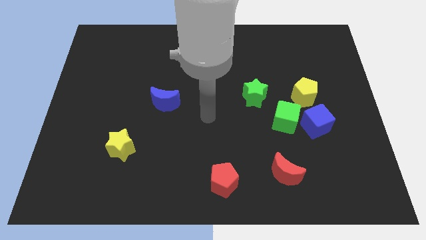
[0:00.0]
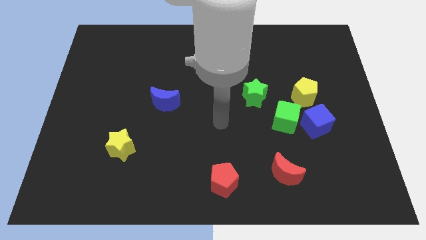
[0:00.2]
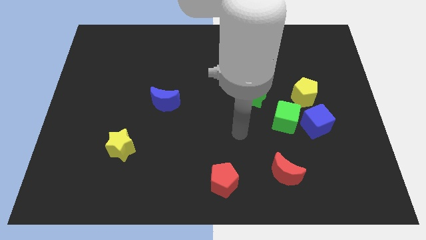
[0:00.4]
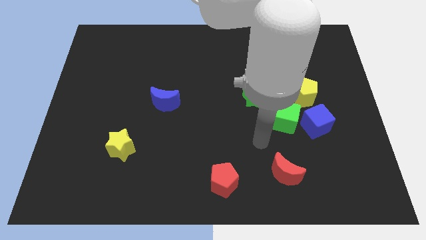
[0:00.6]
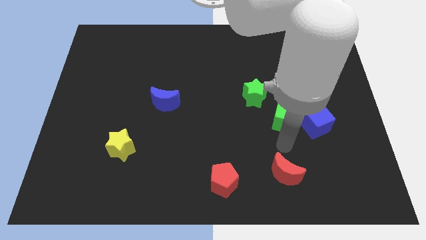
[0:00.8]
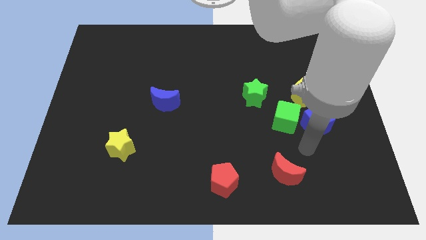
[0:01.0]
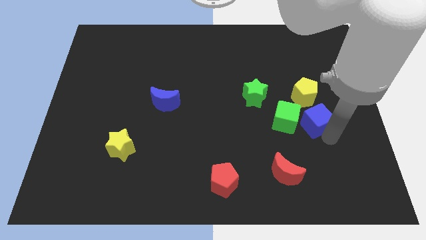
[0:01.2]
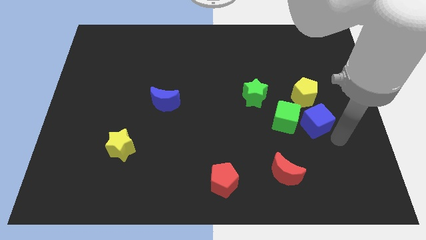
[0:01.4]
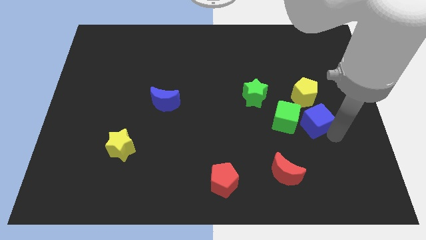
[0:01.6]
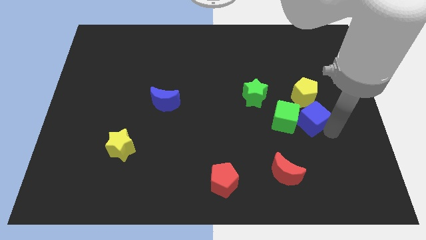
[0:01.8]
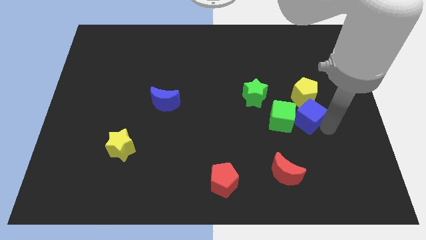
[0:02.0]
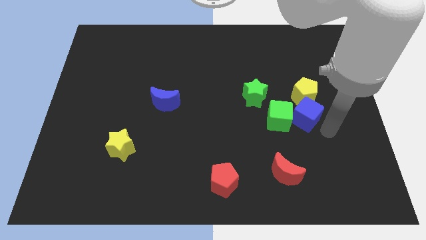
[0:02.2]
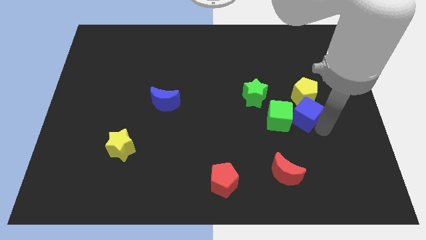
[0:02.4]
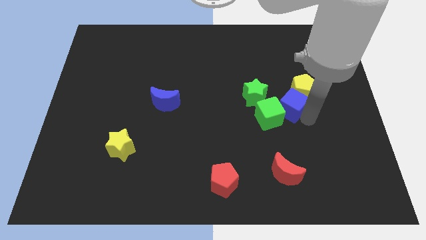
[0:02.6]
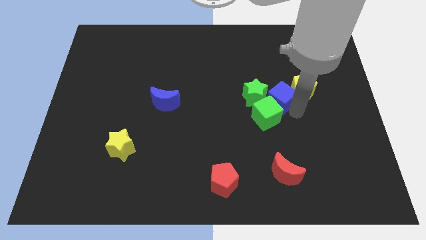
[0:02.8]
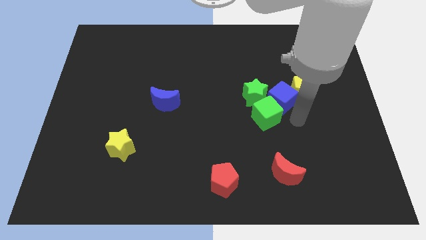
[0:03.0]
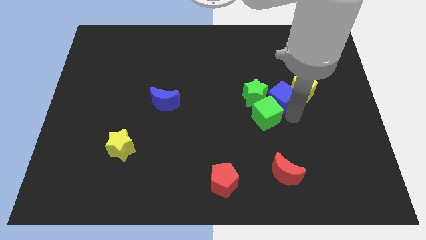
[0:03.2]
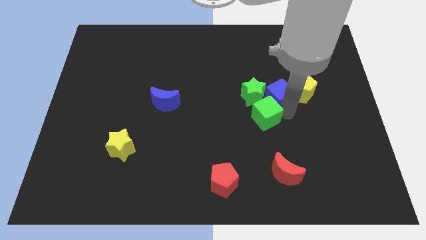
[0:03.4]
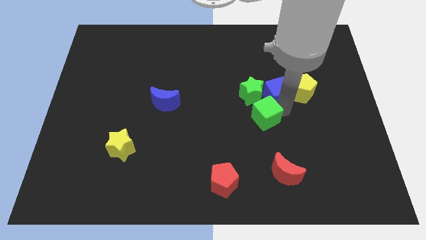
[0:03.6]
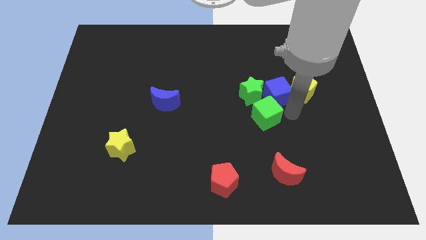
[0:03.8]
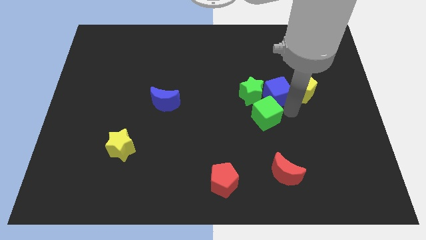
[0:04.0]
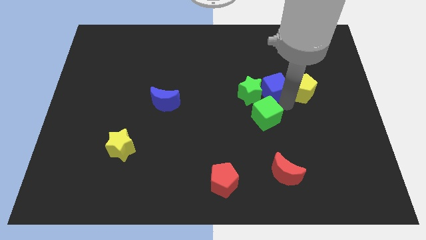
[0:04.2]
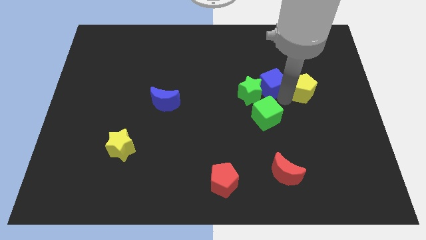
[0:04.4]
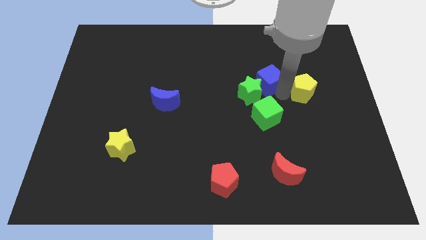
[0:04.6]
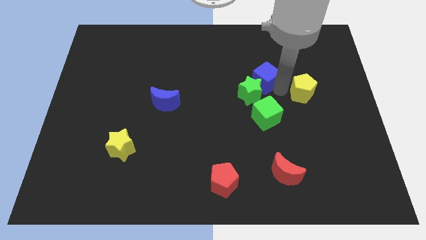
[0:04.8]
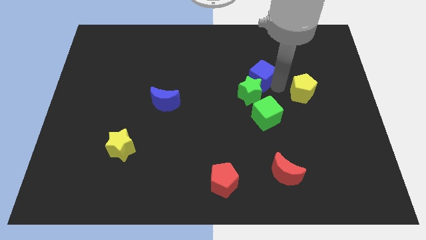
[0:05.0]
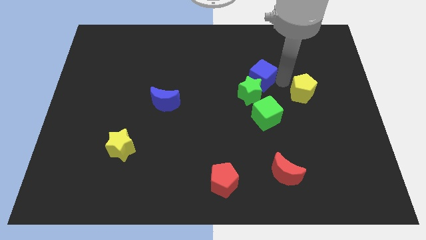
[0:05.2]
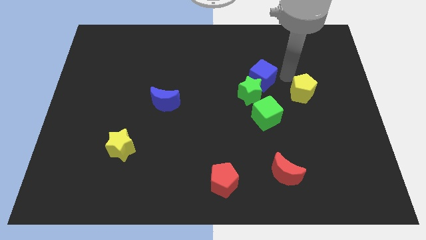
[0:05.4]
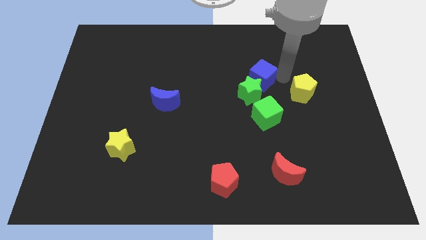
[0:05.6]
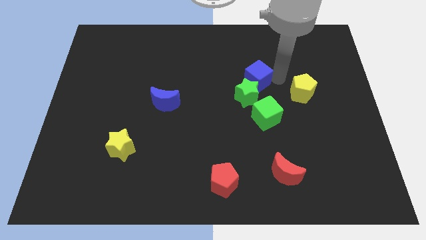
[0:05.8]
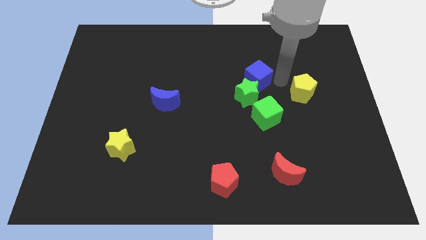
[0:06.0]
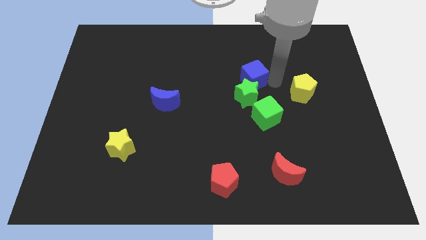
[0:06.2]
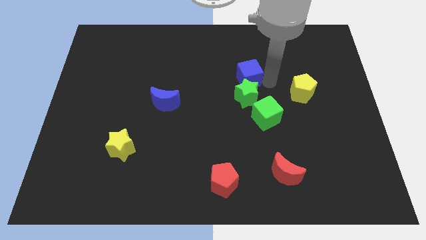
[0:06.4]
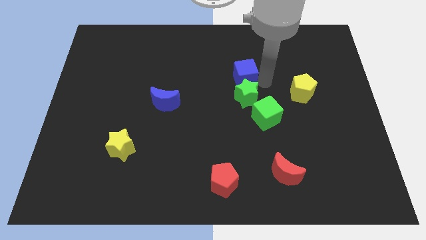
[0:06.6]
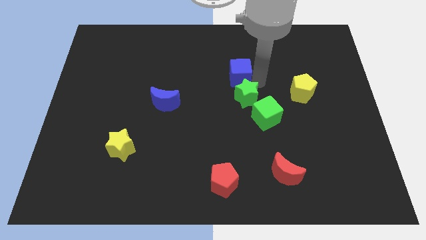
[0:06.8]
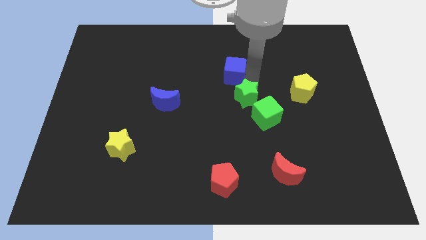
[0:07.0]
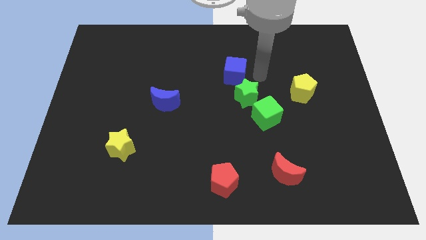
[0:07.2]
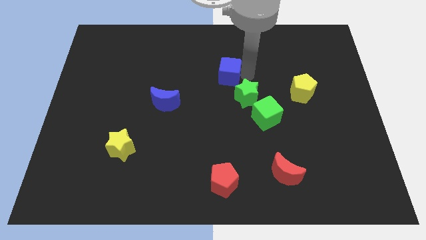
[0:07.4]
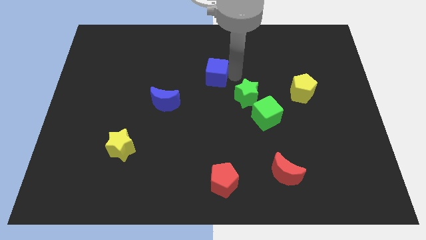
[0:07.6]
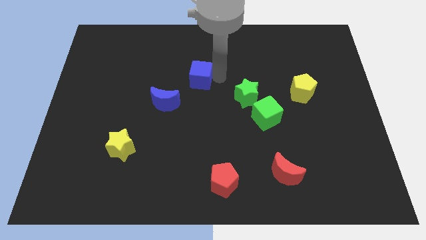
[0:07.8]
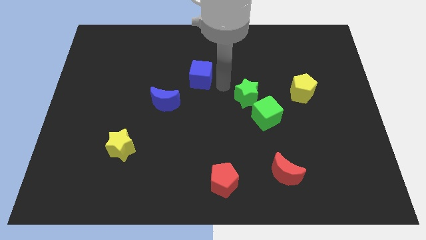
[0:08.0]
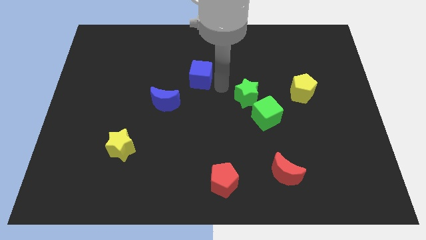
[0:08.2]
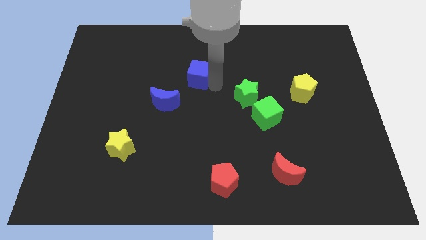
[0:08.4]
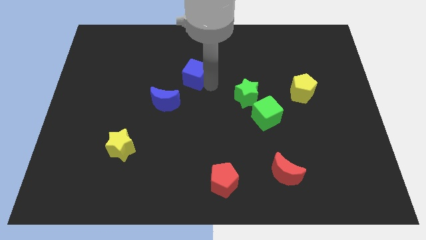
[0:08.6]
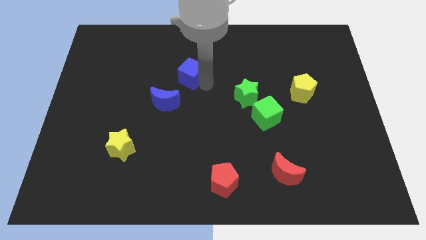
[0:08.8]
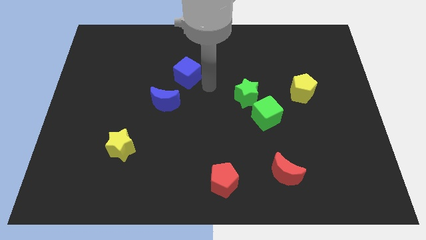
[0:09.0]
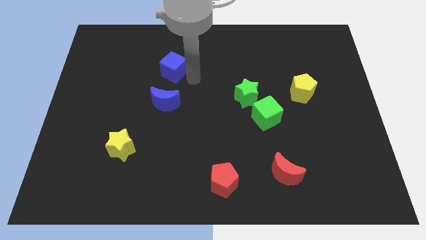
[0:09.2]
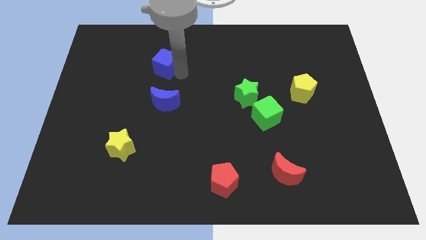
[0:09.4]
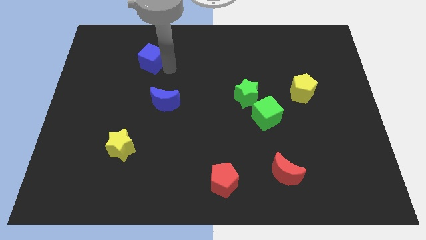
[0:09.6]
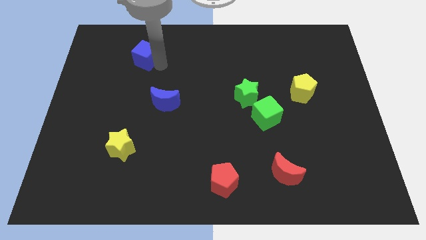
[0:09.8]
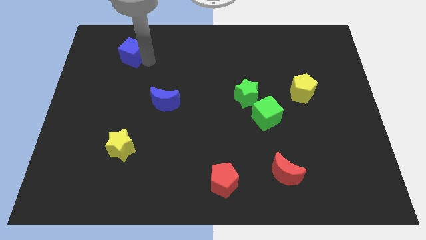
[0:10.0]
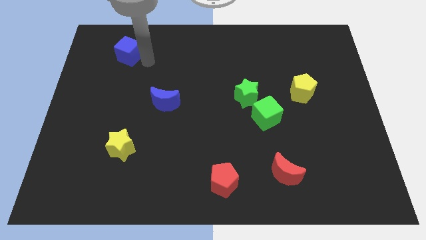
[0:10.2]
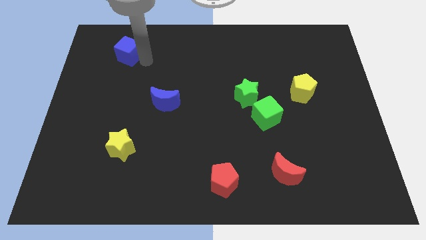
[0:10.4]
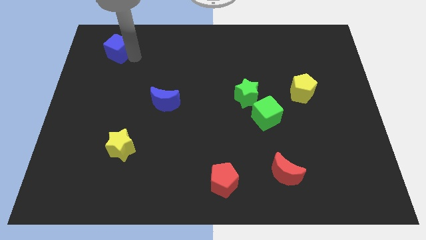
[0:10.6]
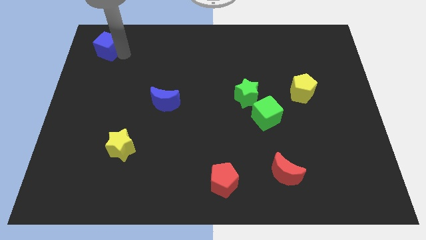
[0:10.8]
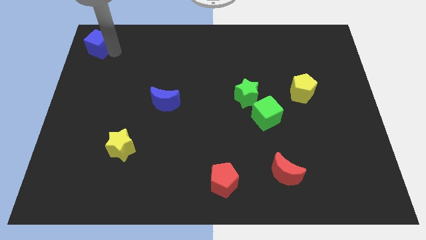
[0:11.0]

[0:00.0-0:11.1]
slide the blue cube to the top left corner

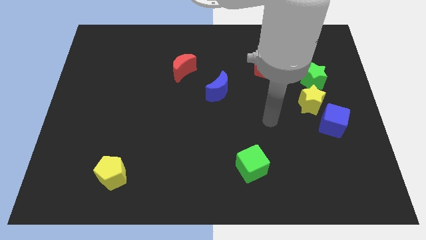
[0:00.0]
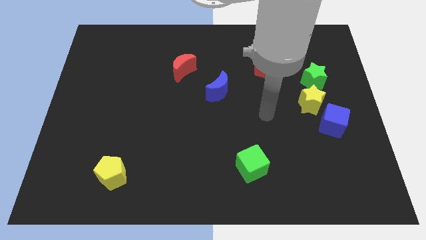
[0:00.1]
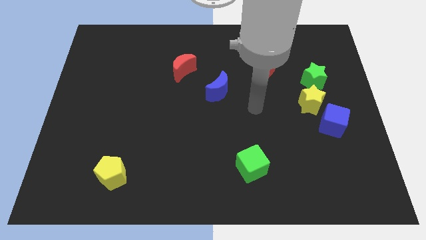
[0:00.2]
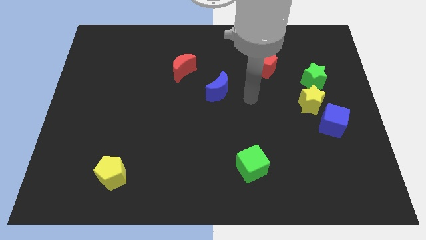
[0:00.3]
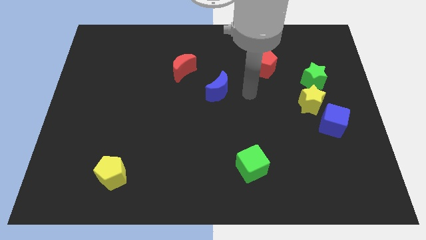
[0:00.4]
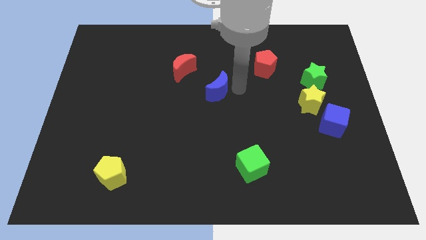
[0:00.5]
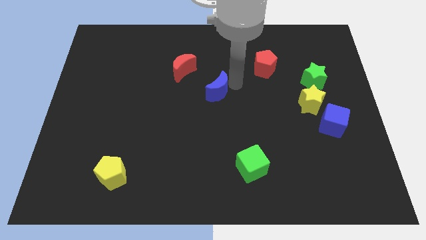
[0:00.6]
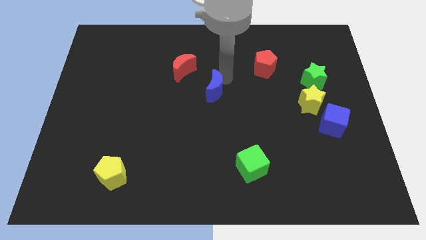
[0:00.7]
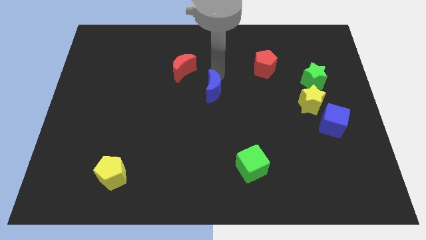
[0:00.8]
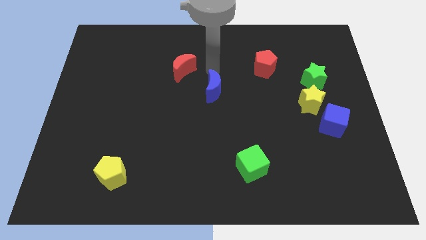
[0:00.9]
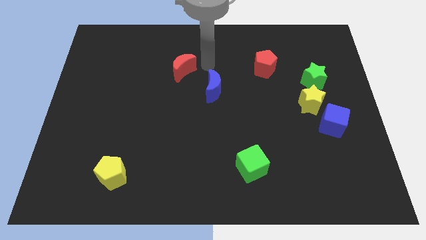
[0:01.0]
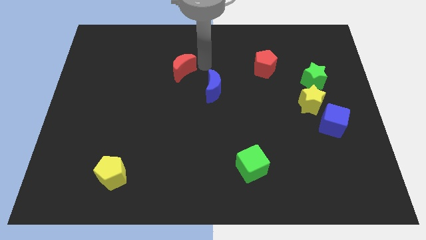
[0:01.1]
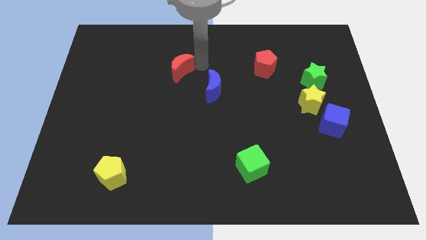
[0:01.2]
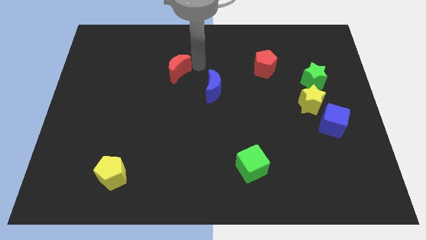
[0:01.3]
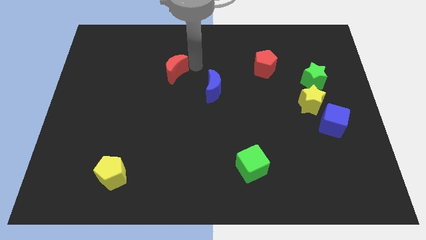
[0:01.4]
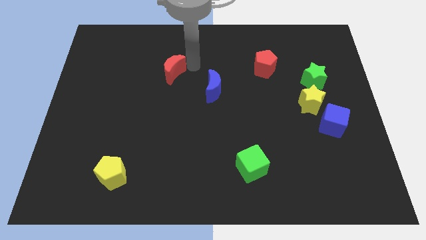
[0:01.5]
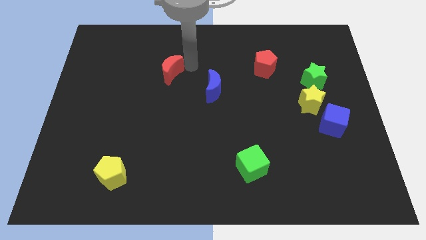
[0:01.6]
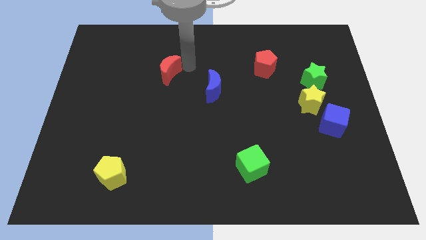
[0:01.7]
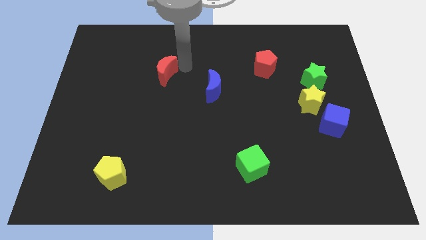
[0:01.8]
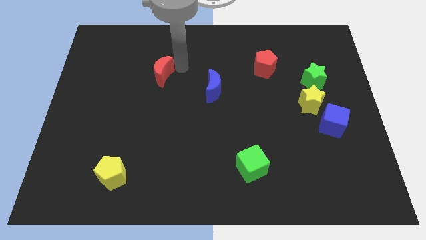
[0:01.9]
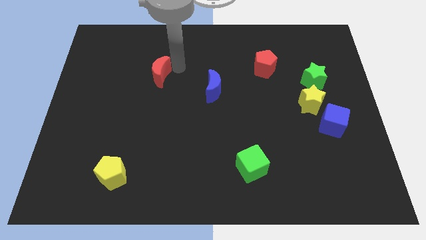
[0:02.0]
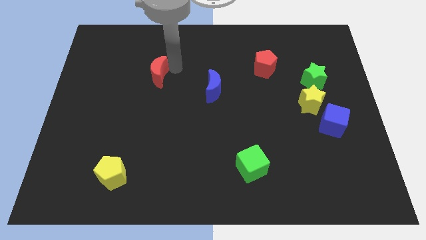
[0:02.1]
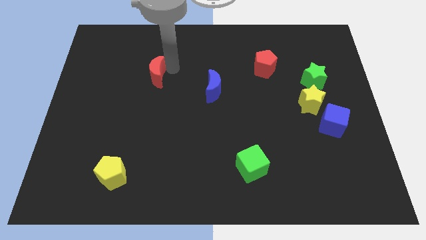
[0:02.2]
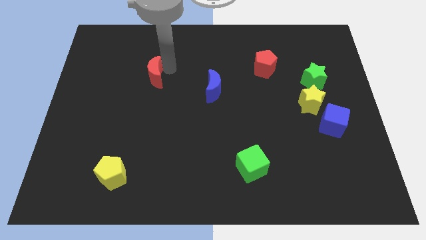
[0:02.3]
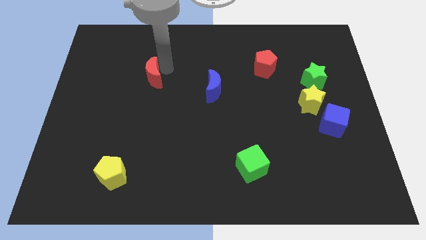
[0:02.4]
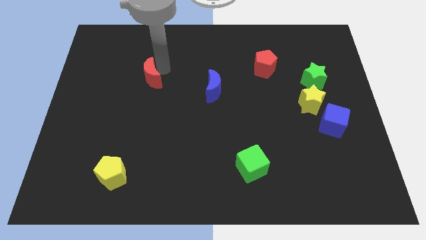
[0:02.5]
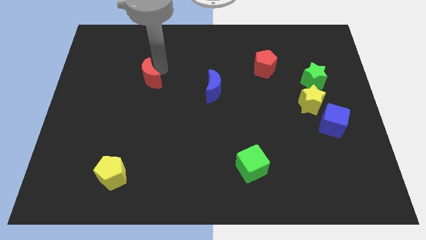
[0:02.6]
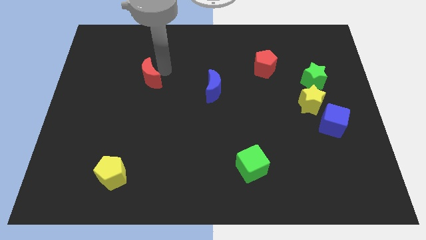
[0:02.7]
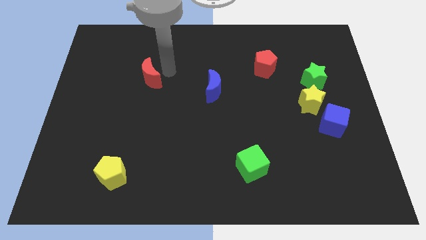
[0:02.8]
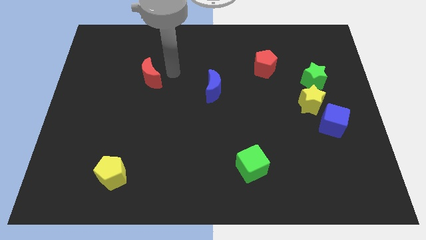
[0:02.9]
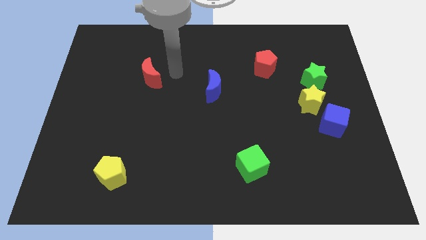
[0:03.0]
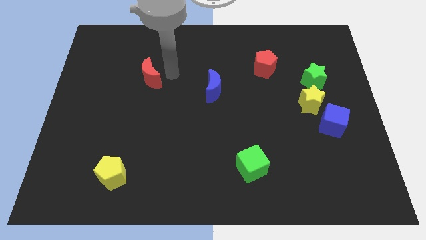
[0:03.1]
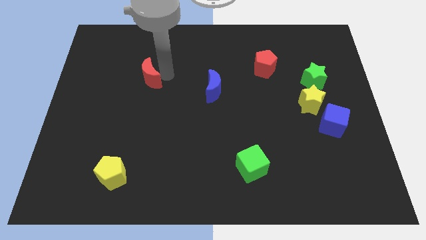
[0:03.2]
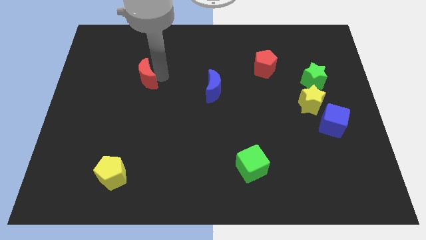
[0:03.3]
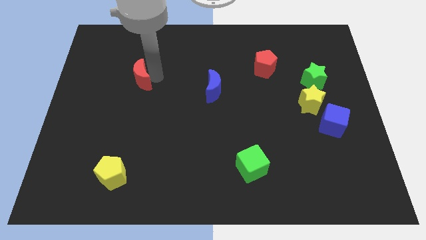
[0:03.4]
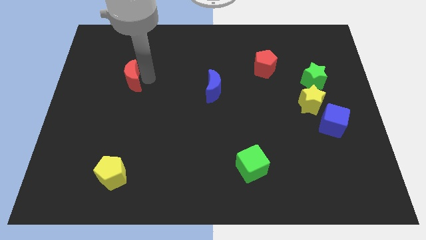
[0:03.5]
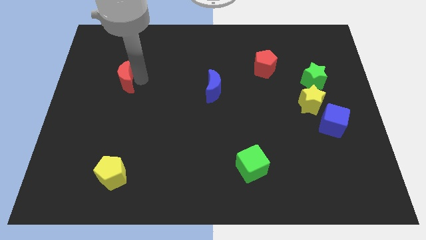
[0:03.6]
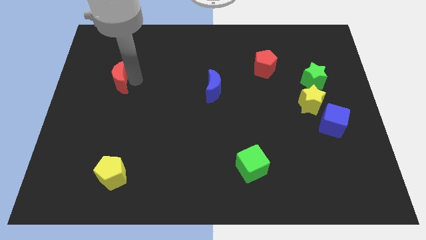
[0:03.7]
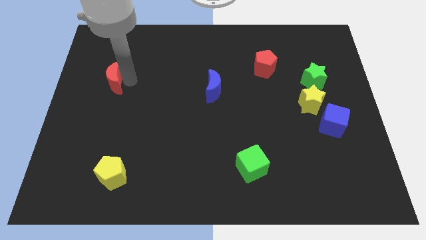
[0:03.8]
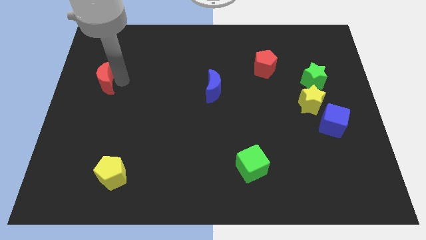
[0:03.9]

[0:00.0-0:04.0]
put the red moon to the left side
